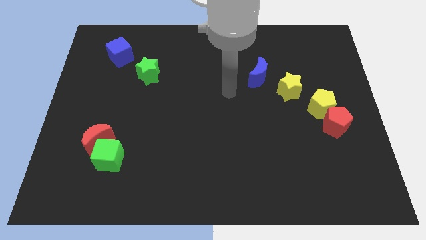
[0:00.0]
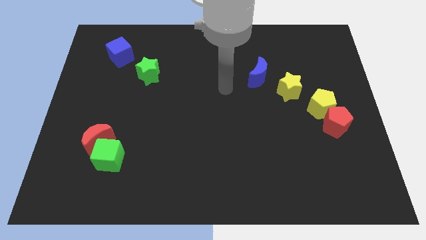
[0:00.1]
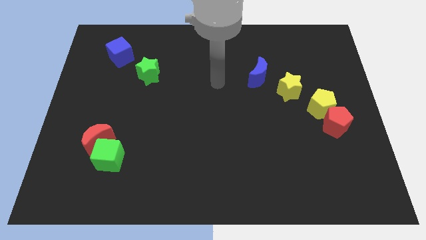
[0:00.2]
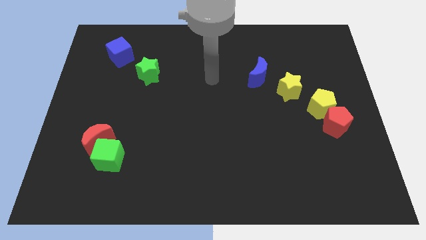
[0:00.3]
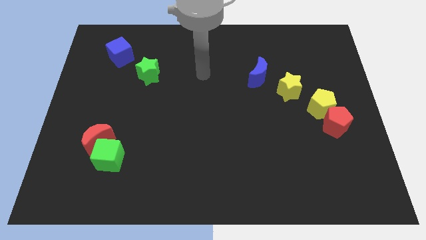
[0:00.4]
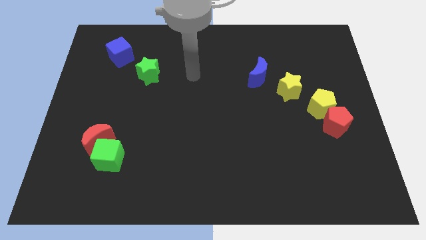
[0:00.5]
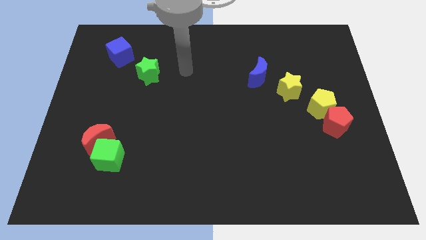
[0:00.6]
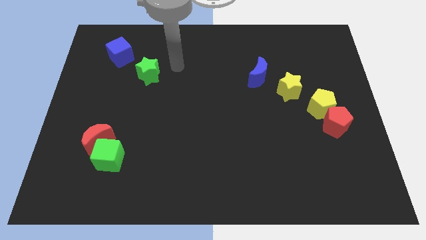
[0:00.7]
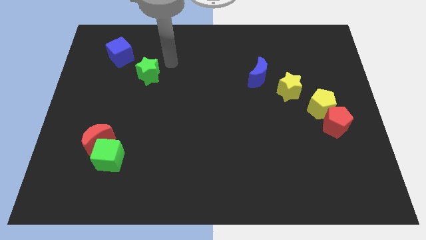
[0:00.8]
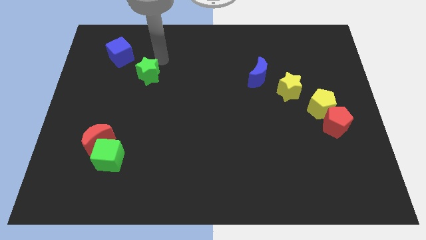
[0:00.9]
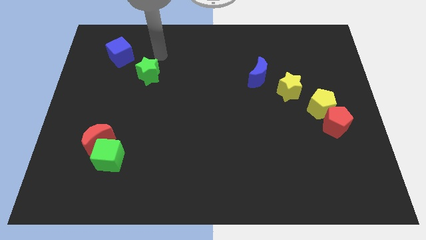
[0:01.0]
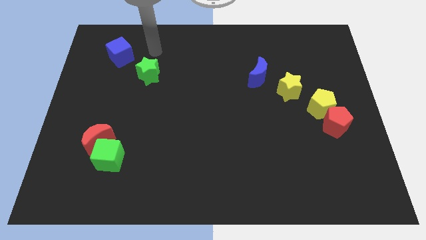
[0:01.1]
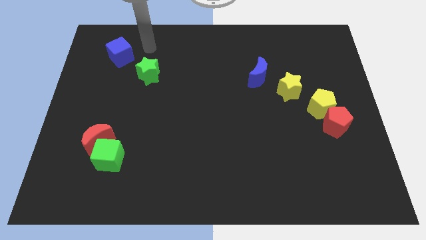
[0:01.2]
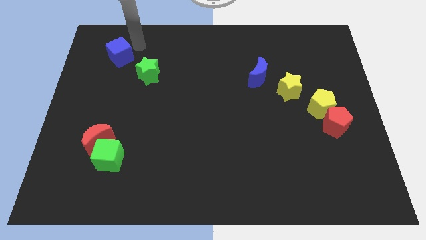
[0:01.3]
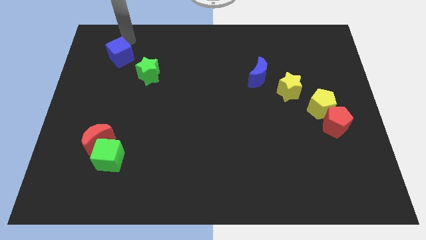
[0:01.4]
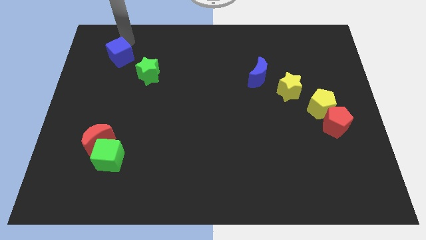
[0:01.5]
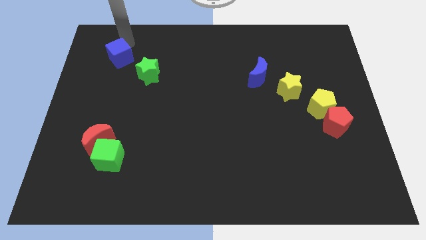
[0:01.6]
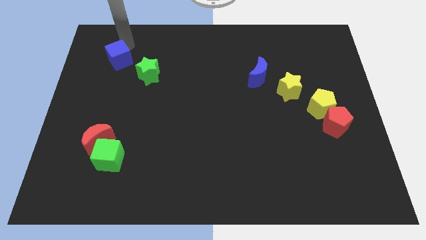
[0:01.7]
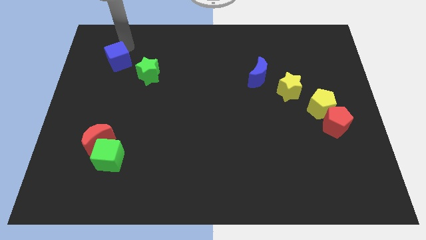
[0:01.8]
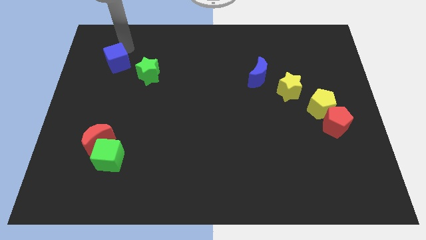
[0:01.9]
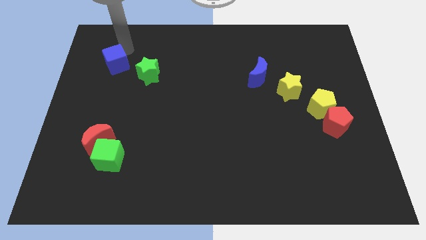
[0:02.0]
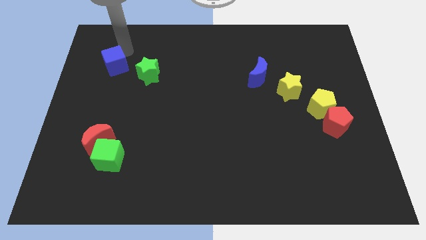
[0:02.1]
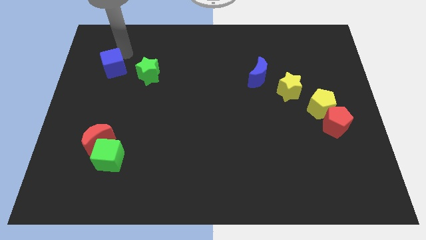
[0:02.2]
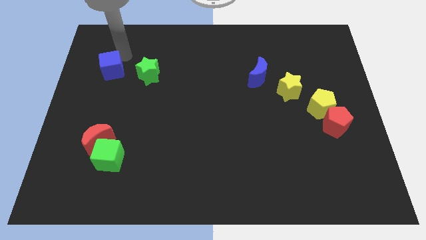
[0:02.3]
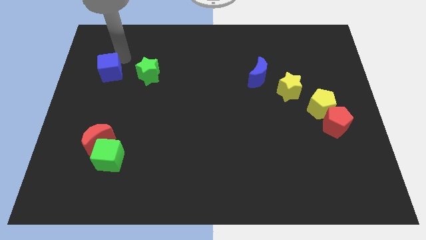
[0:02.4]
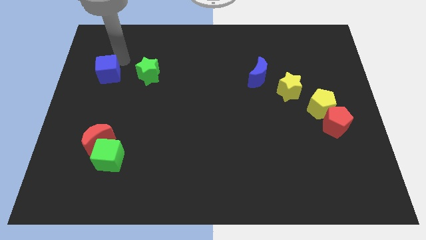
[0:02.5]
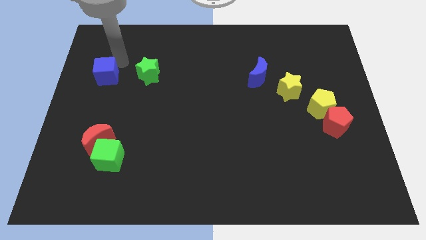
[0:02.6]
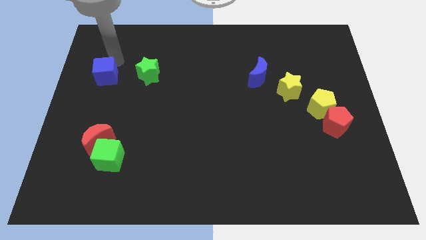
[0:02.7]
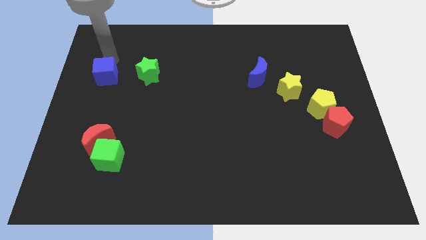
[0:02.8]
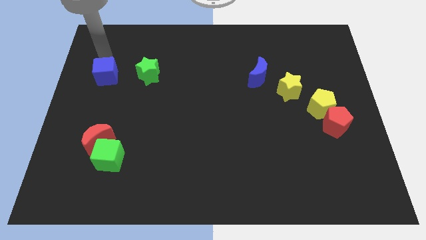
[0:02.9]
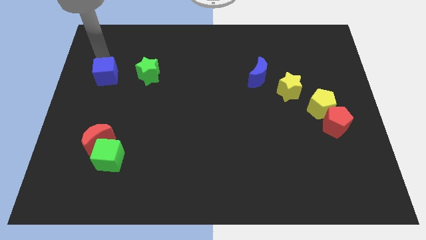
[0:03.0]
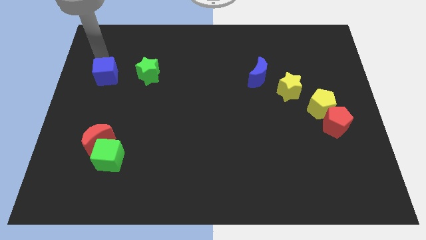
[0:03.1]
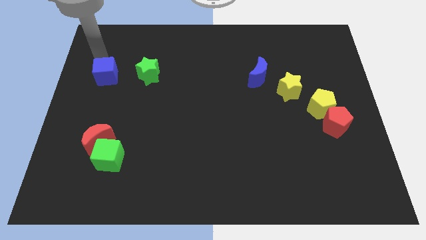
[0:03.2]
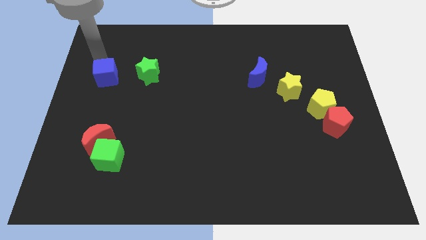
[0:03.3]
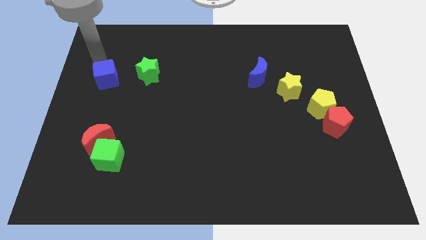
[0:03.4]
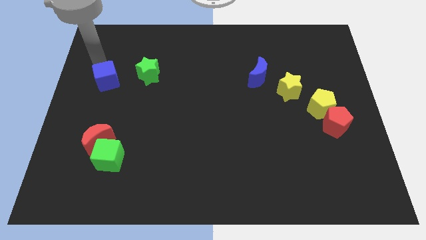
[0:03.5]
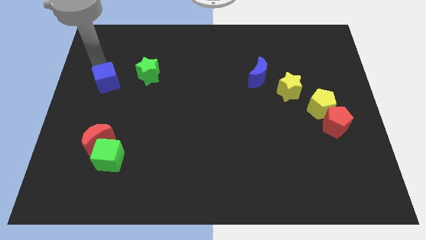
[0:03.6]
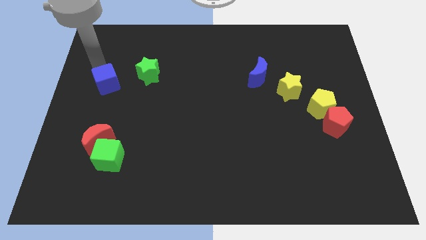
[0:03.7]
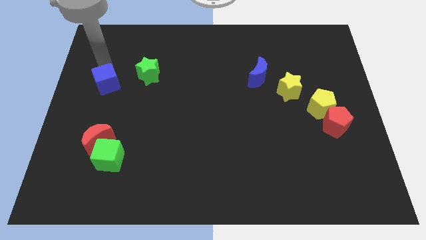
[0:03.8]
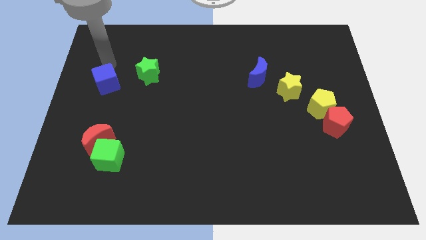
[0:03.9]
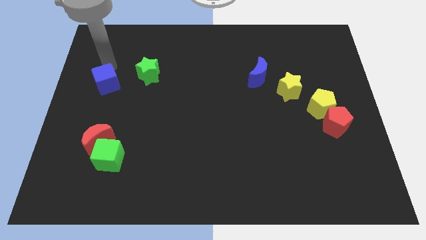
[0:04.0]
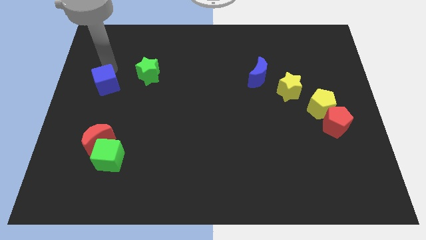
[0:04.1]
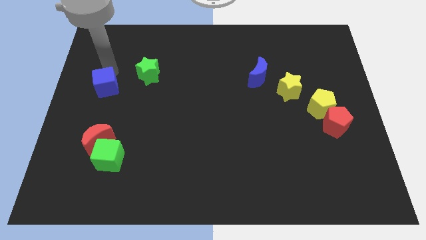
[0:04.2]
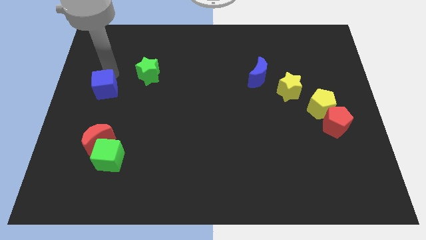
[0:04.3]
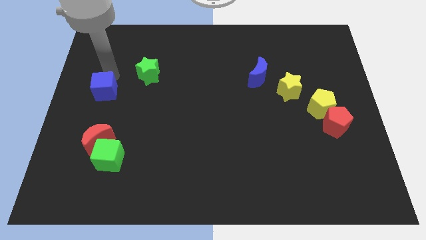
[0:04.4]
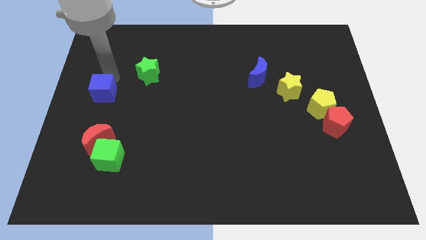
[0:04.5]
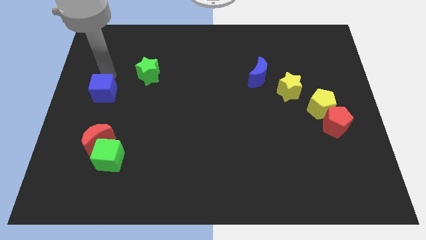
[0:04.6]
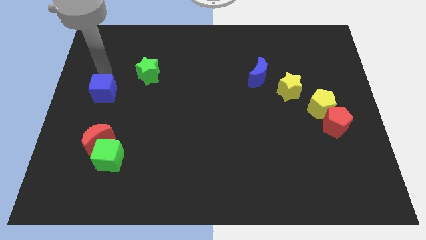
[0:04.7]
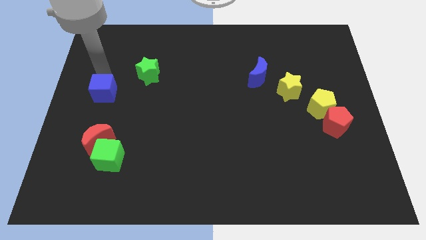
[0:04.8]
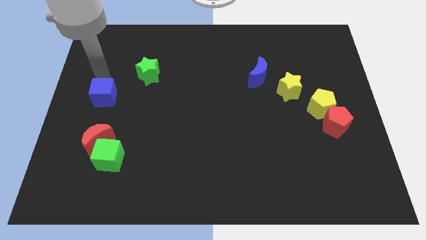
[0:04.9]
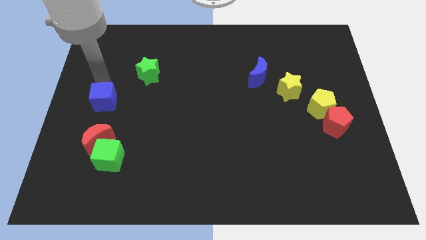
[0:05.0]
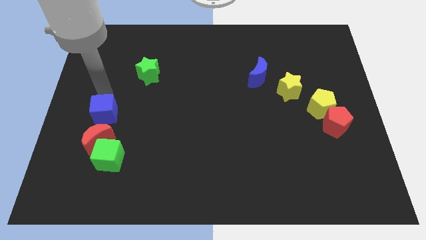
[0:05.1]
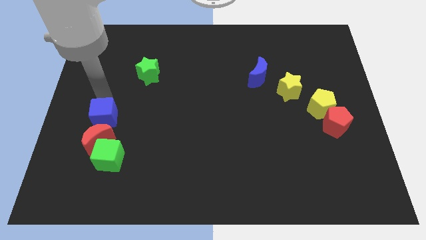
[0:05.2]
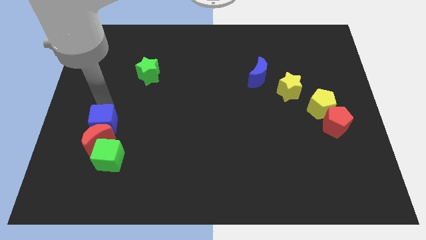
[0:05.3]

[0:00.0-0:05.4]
slide the blue cube next to the red moon

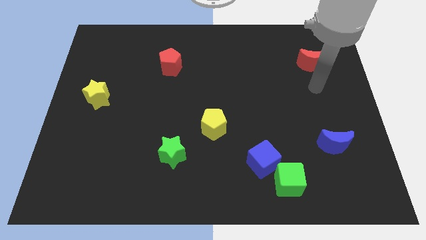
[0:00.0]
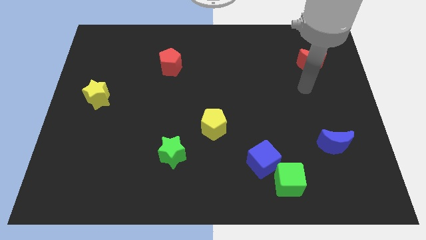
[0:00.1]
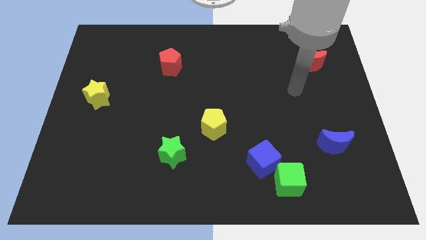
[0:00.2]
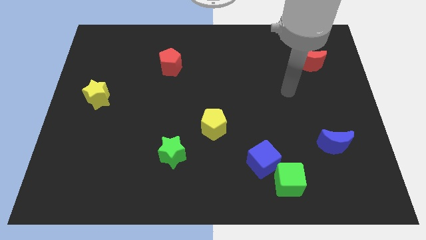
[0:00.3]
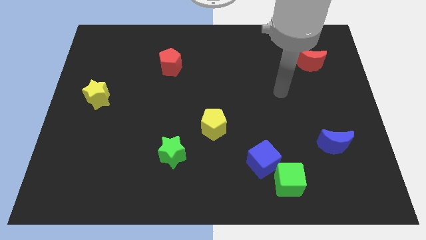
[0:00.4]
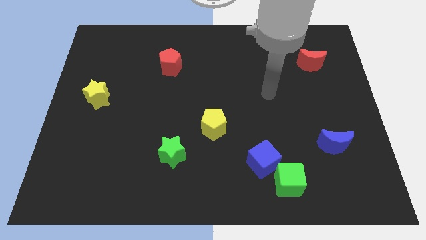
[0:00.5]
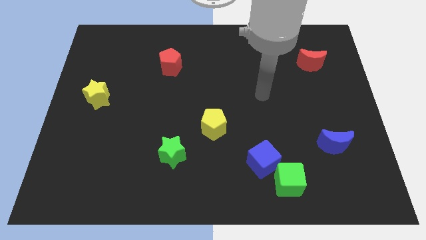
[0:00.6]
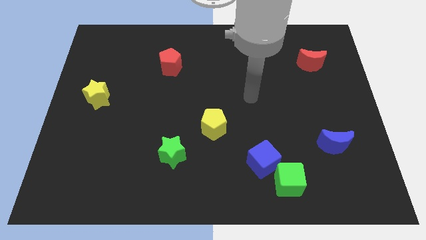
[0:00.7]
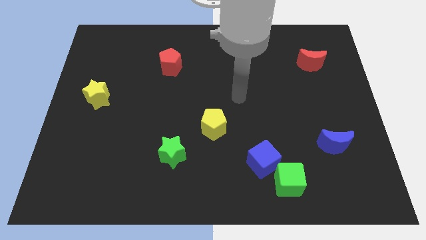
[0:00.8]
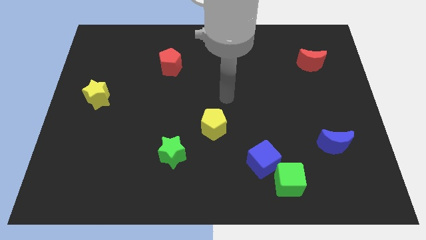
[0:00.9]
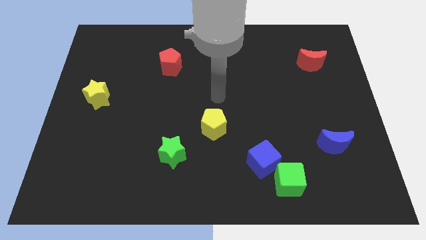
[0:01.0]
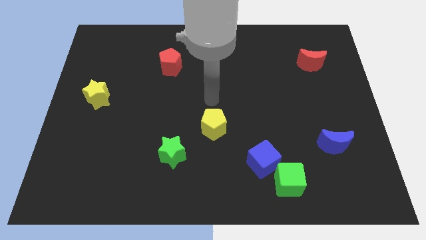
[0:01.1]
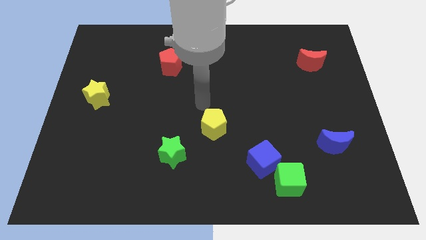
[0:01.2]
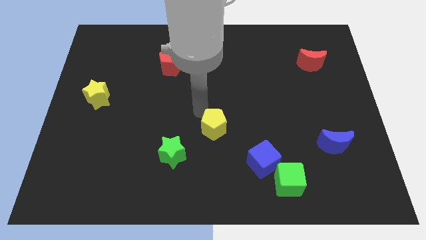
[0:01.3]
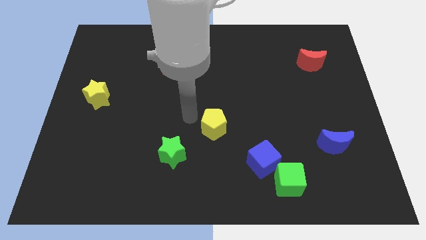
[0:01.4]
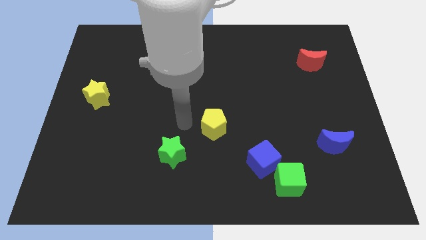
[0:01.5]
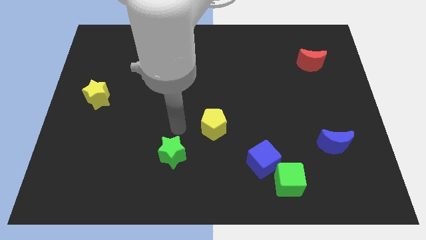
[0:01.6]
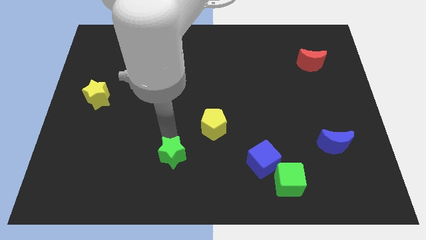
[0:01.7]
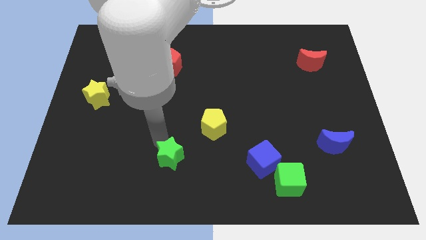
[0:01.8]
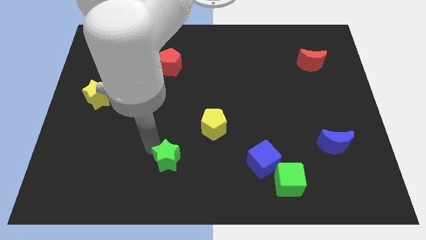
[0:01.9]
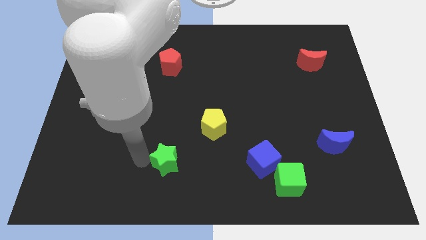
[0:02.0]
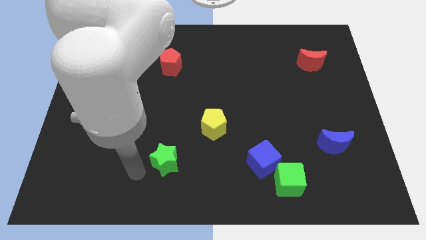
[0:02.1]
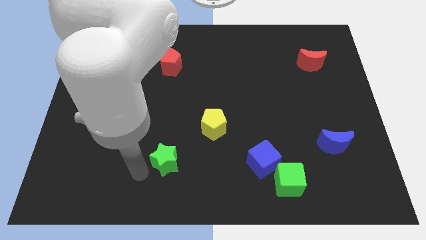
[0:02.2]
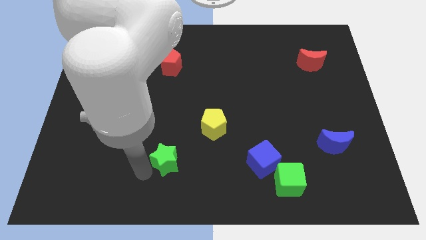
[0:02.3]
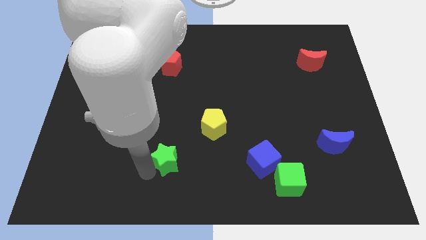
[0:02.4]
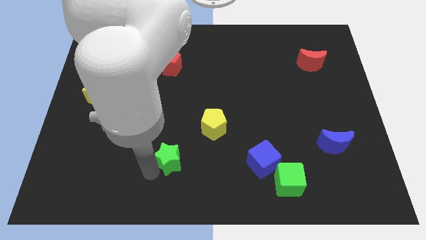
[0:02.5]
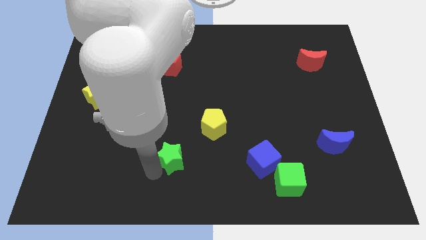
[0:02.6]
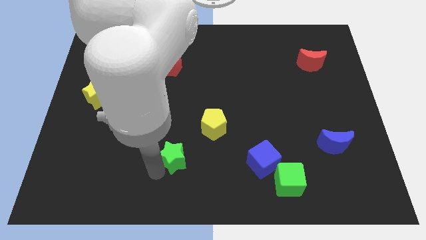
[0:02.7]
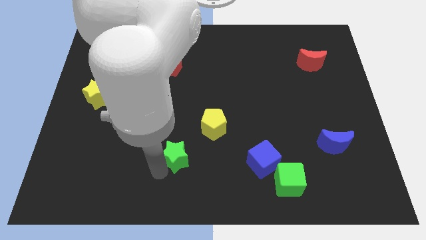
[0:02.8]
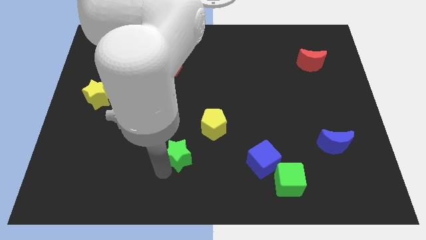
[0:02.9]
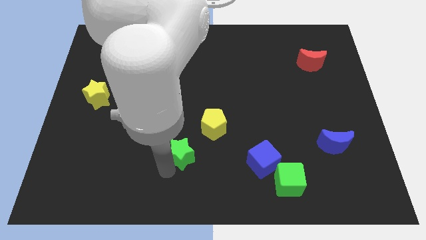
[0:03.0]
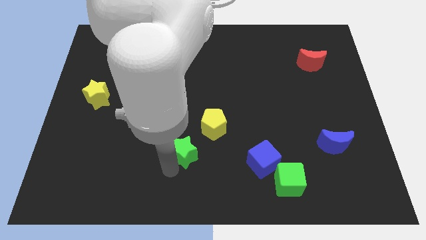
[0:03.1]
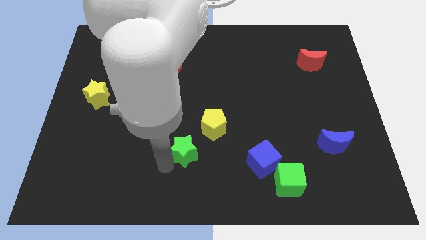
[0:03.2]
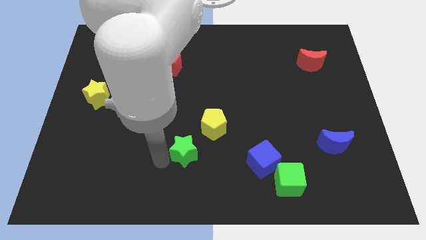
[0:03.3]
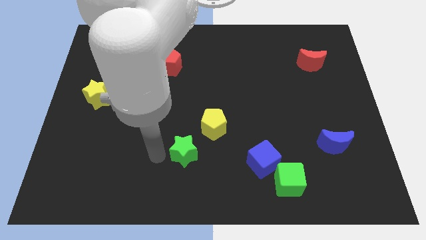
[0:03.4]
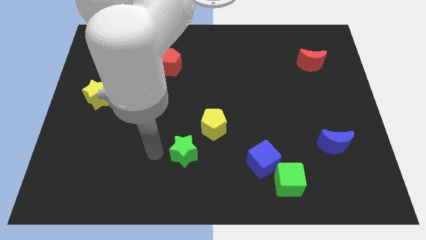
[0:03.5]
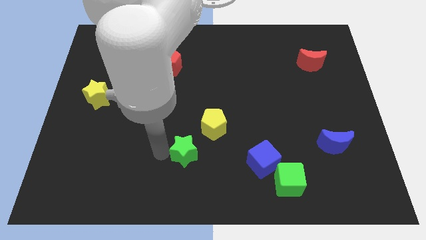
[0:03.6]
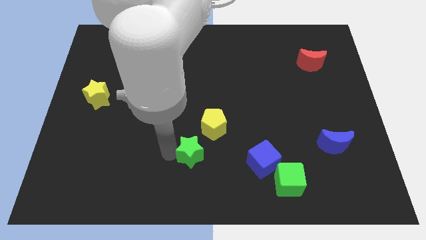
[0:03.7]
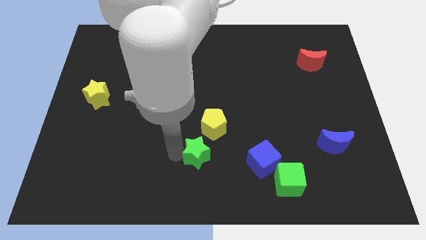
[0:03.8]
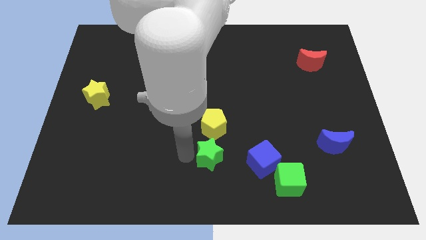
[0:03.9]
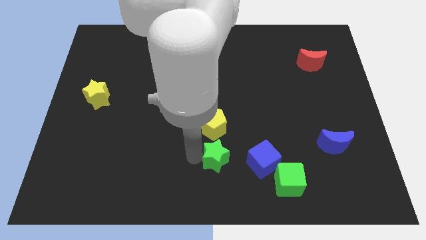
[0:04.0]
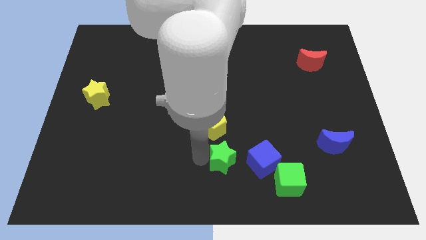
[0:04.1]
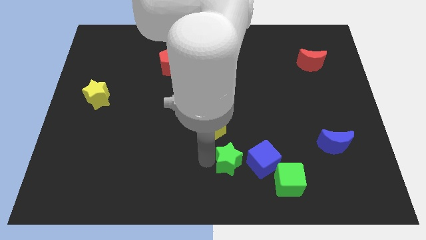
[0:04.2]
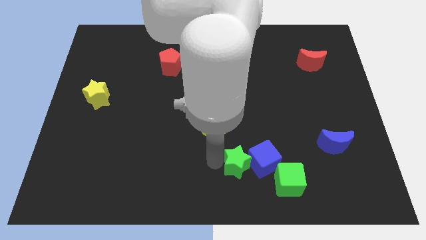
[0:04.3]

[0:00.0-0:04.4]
slide the green star close to the blue cube
